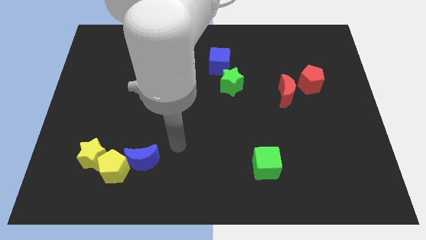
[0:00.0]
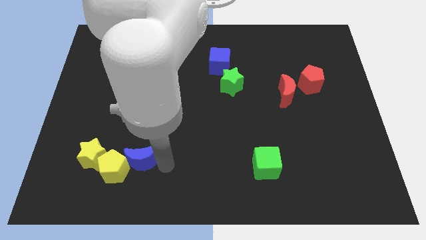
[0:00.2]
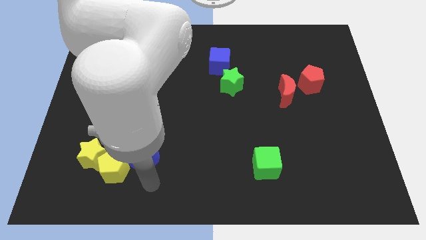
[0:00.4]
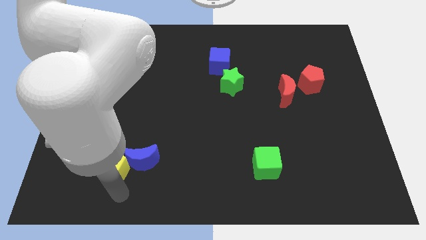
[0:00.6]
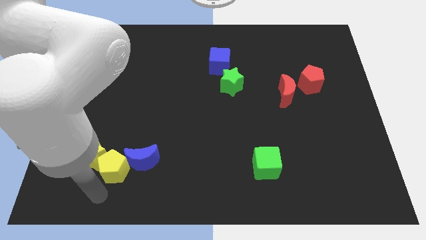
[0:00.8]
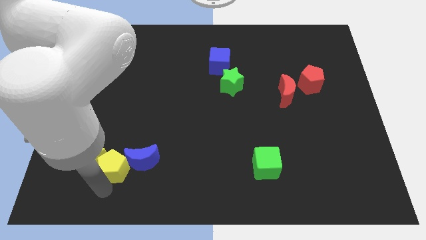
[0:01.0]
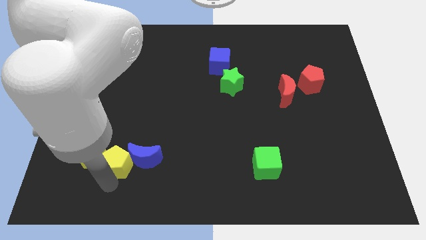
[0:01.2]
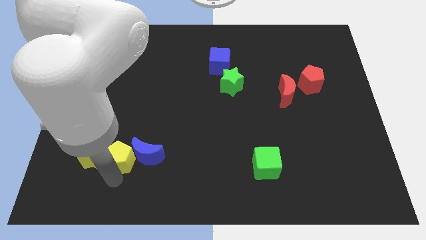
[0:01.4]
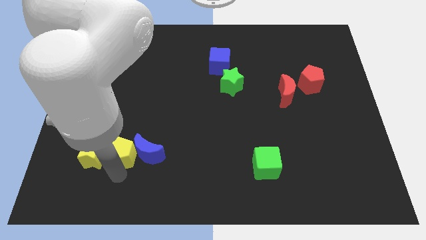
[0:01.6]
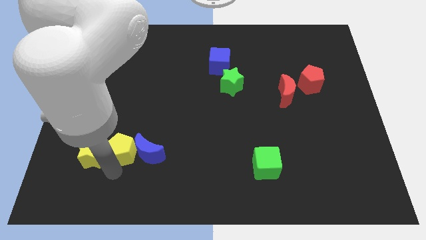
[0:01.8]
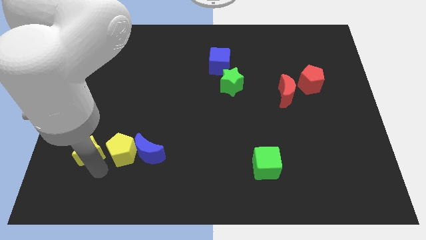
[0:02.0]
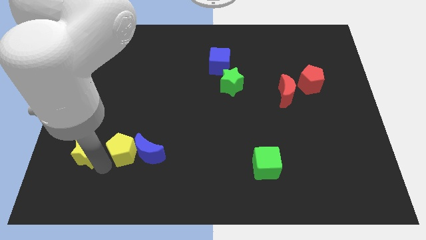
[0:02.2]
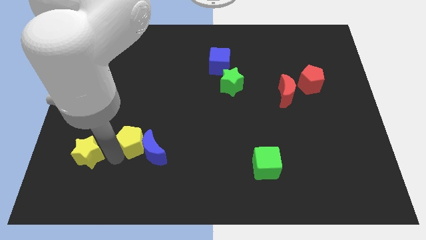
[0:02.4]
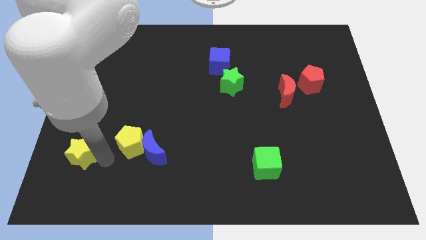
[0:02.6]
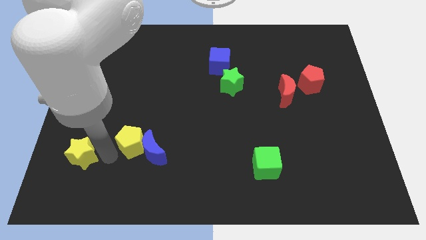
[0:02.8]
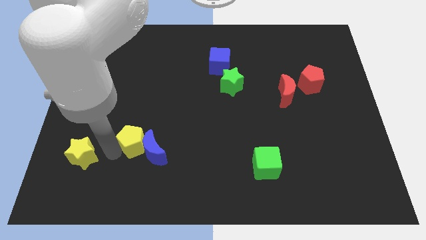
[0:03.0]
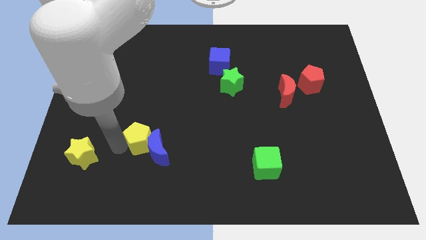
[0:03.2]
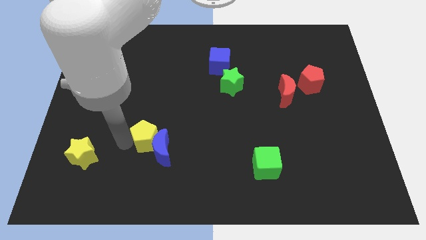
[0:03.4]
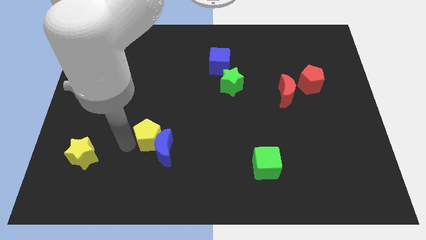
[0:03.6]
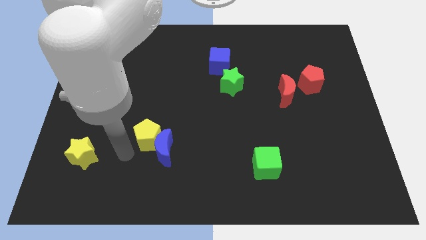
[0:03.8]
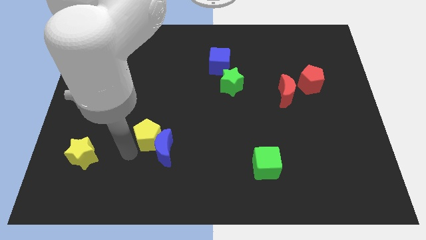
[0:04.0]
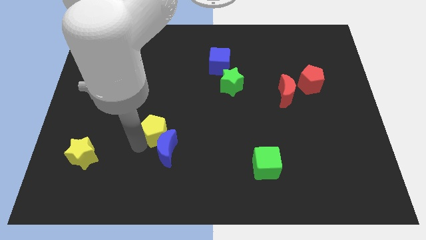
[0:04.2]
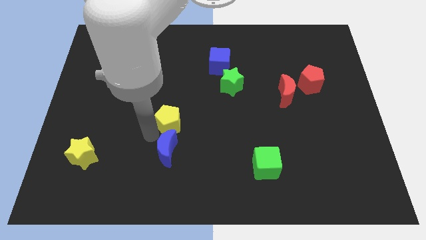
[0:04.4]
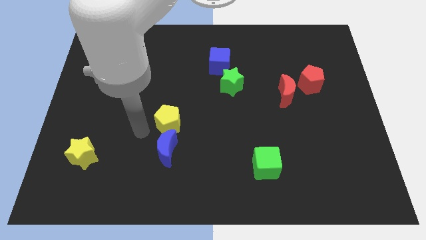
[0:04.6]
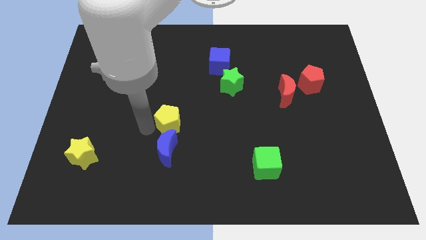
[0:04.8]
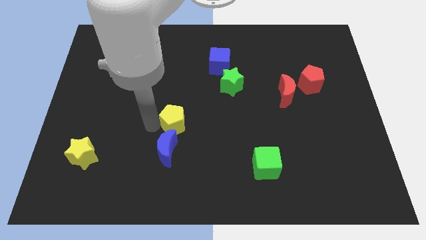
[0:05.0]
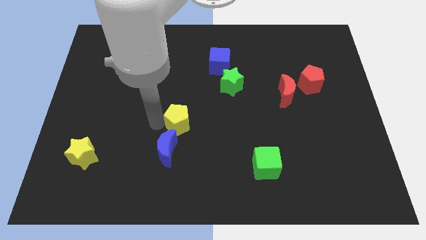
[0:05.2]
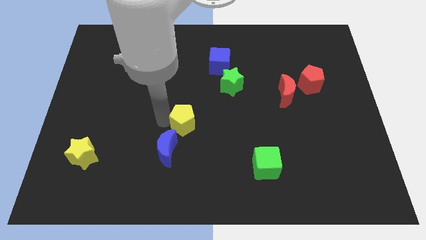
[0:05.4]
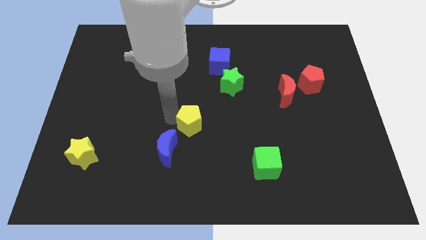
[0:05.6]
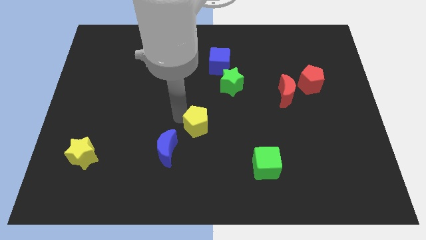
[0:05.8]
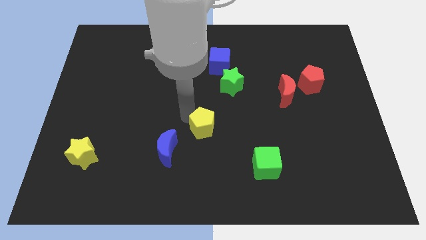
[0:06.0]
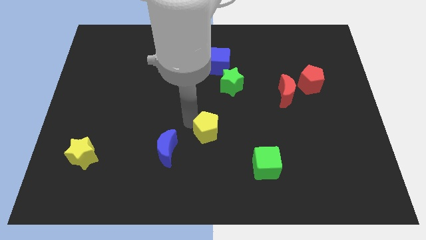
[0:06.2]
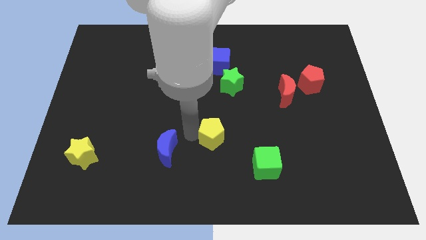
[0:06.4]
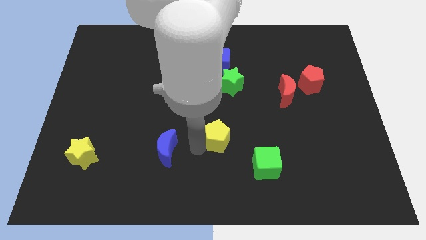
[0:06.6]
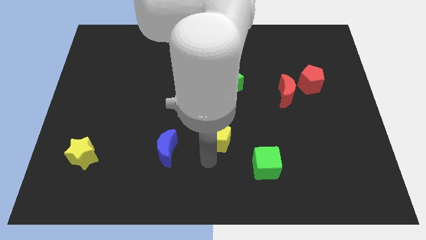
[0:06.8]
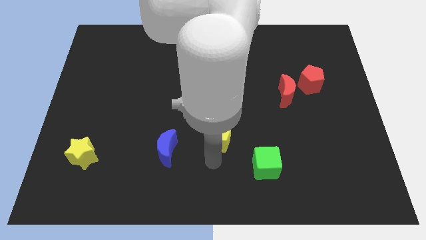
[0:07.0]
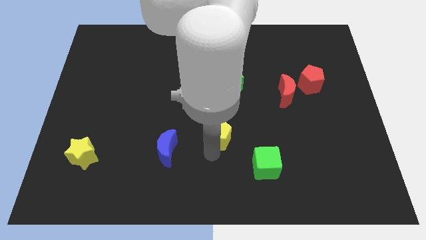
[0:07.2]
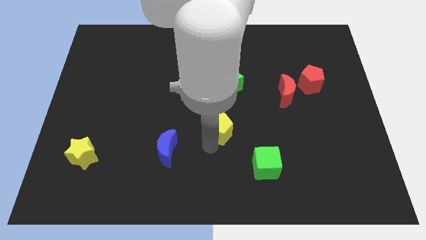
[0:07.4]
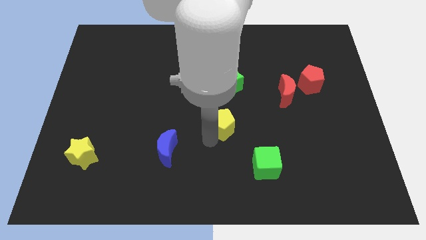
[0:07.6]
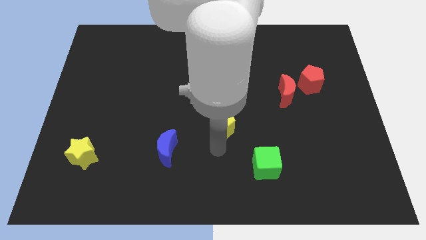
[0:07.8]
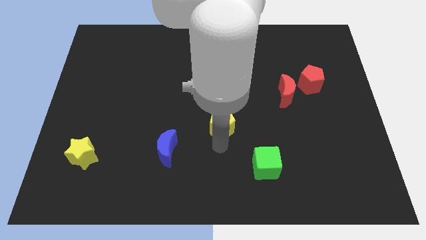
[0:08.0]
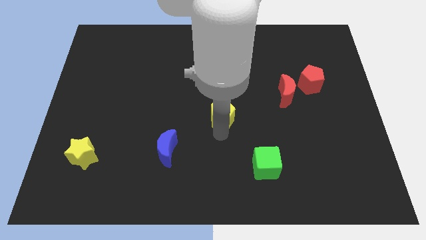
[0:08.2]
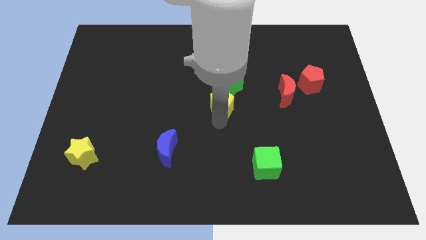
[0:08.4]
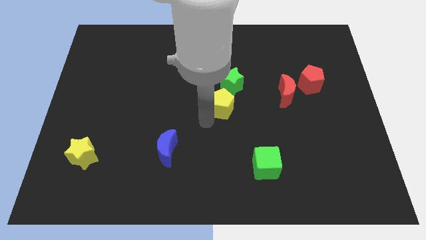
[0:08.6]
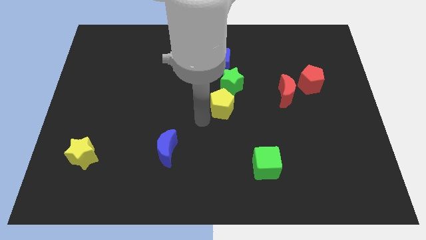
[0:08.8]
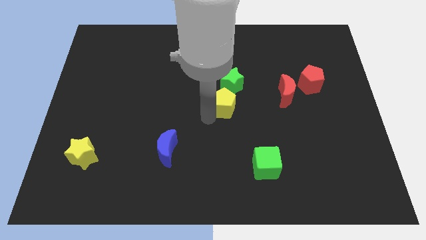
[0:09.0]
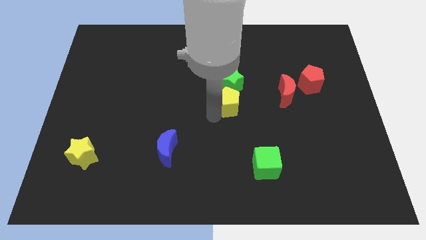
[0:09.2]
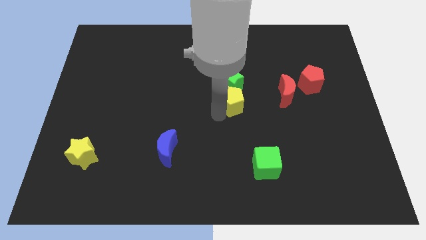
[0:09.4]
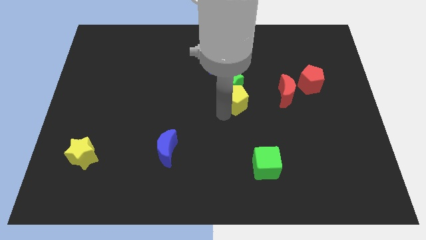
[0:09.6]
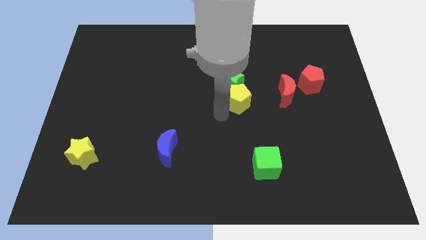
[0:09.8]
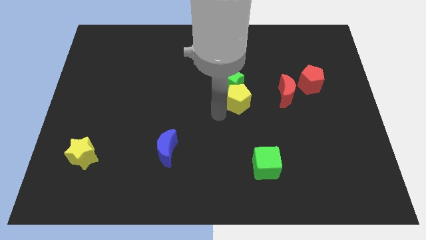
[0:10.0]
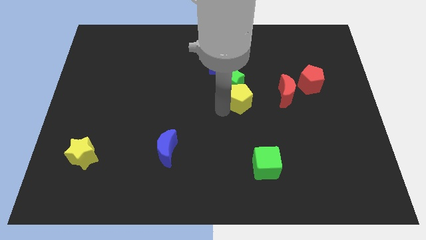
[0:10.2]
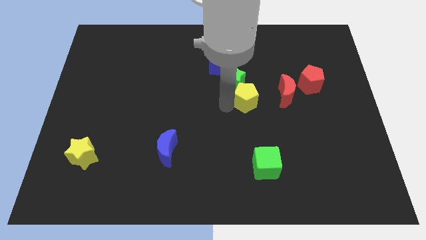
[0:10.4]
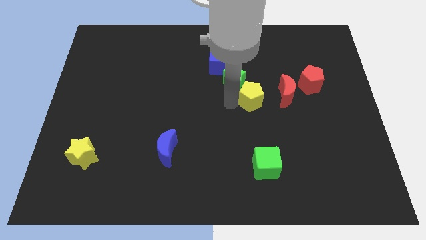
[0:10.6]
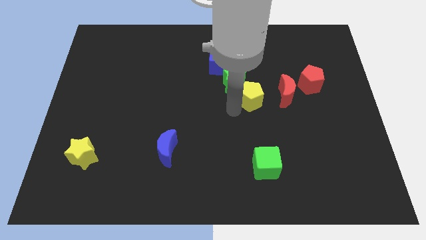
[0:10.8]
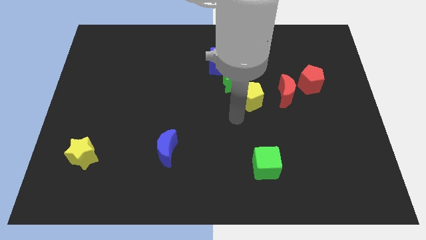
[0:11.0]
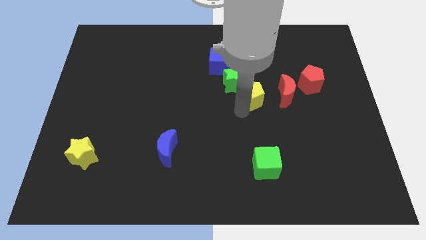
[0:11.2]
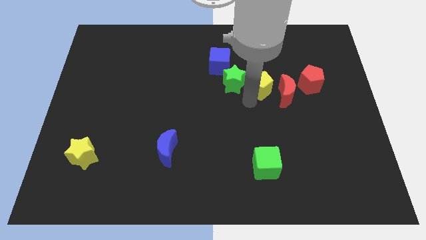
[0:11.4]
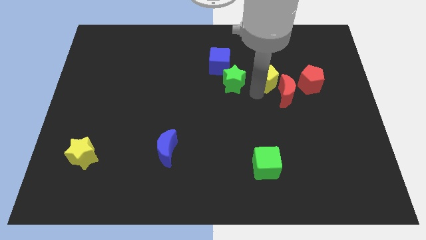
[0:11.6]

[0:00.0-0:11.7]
slide the yellow pentagon above the red moon

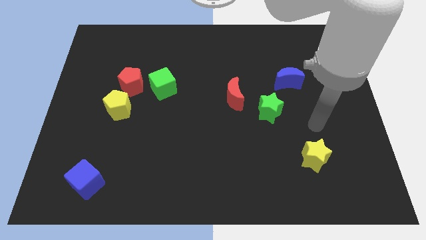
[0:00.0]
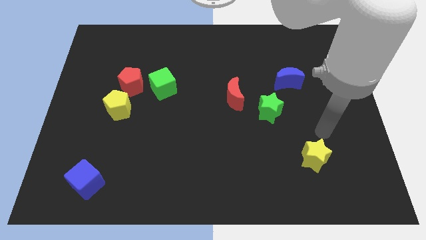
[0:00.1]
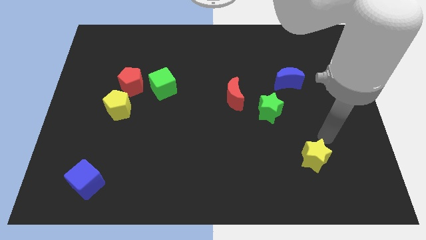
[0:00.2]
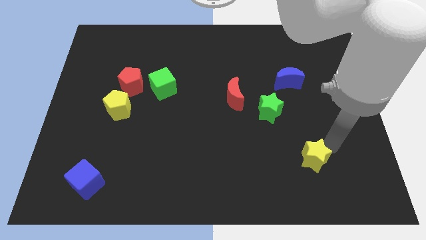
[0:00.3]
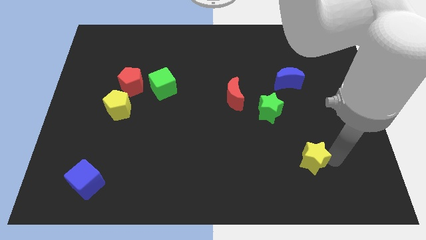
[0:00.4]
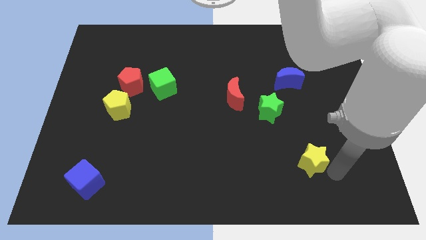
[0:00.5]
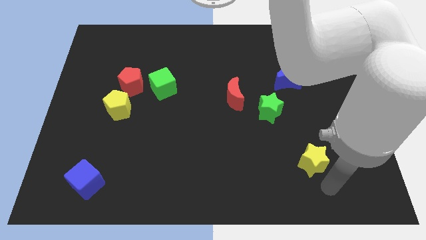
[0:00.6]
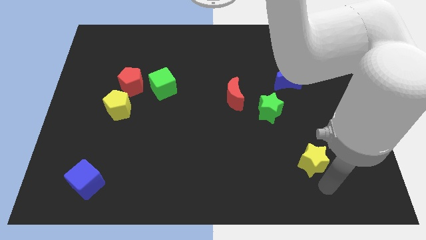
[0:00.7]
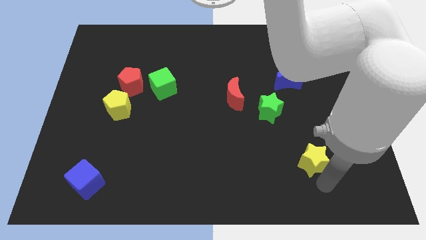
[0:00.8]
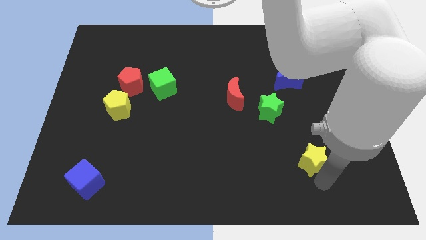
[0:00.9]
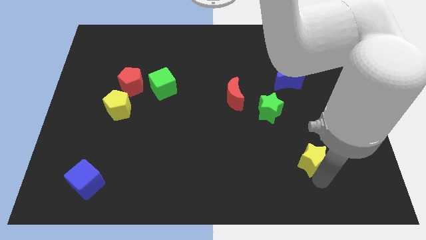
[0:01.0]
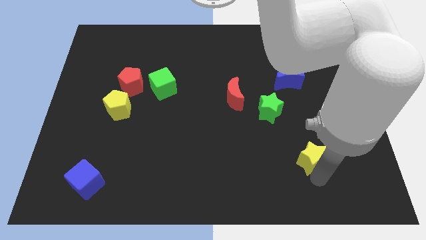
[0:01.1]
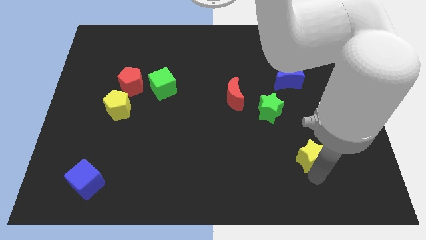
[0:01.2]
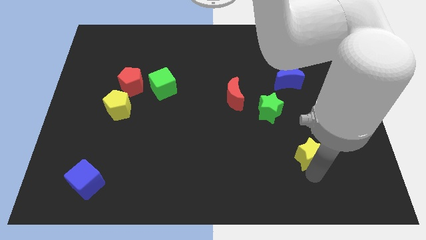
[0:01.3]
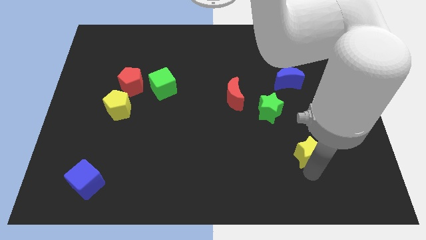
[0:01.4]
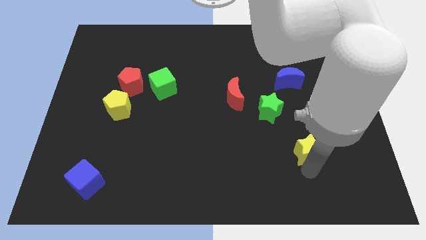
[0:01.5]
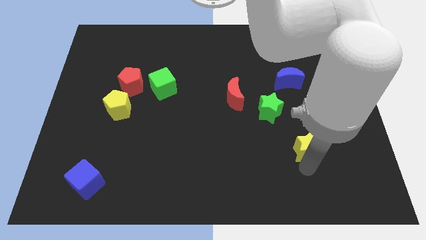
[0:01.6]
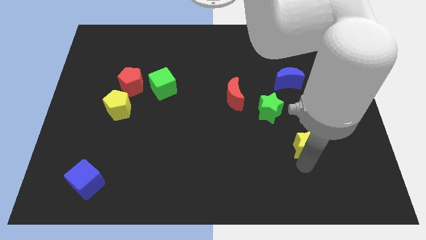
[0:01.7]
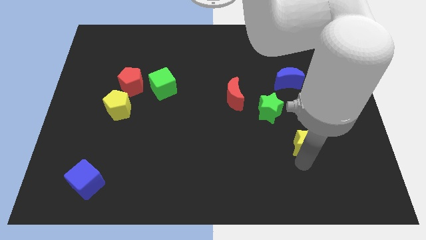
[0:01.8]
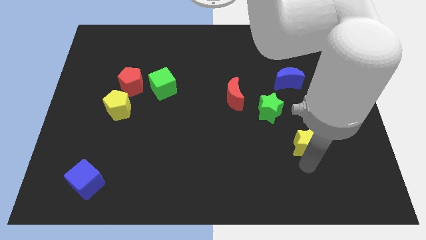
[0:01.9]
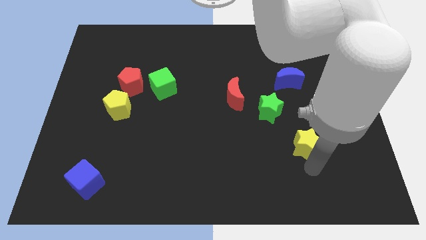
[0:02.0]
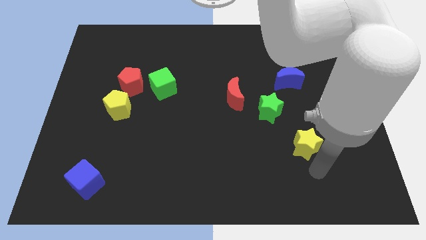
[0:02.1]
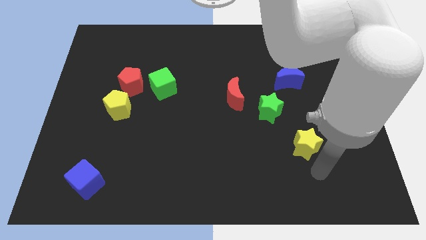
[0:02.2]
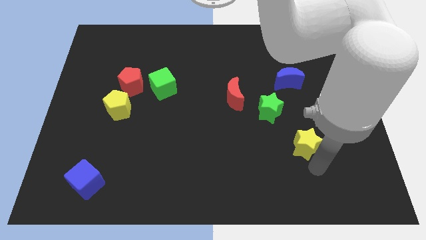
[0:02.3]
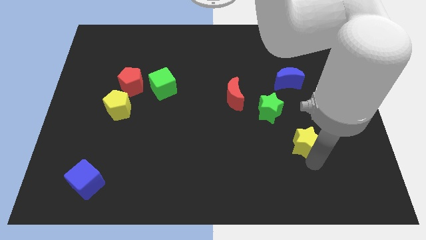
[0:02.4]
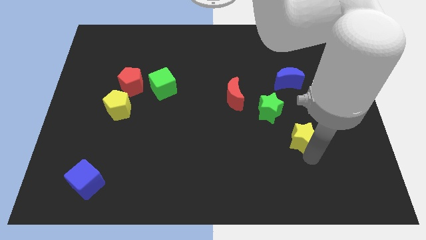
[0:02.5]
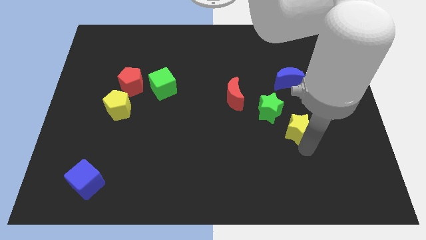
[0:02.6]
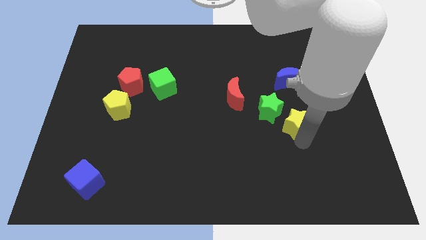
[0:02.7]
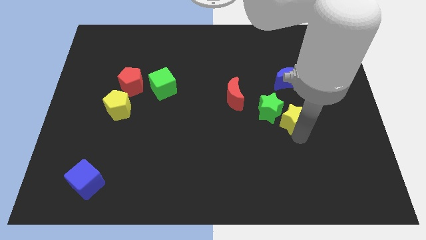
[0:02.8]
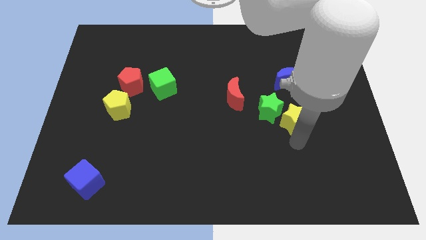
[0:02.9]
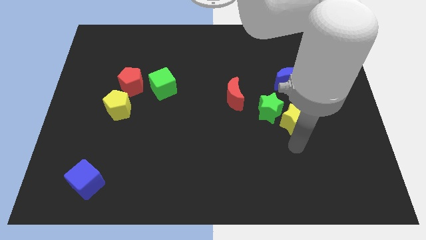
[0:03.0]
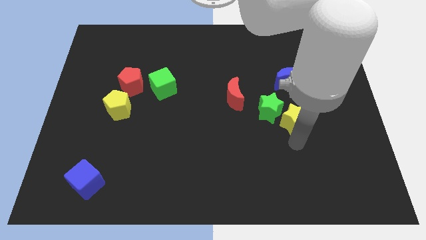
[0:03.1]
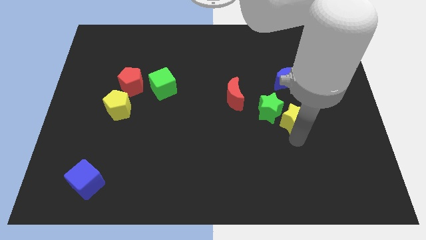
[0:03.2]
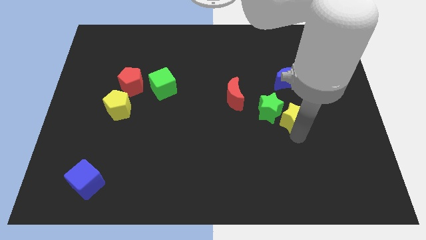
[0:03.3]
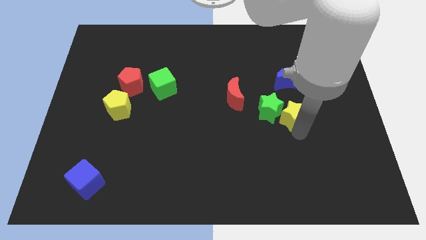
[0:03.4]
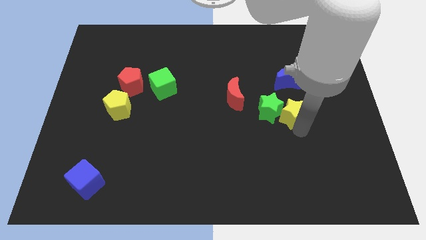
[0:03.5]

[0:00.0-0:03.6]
move the yellow star to the top right side of the green star
